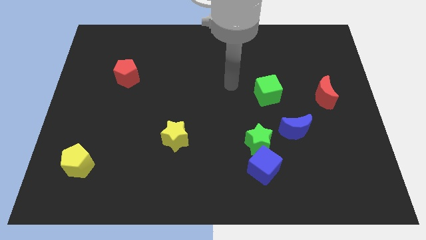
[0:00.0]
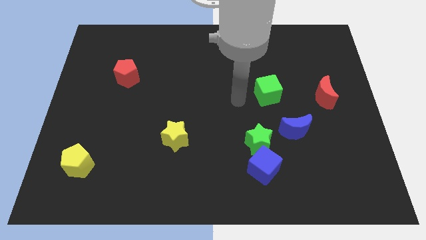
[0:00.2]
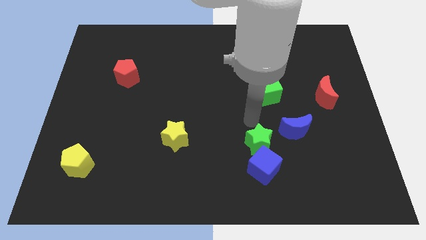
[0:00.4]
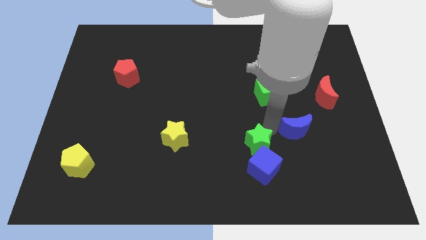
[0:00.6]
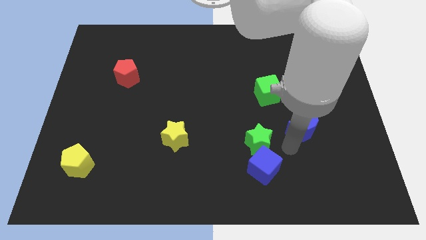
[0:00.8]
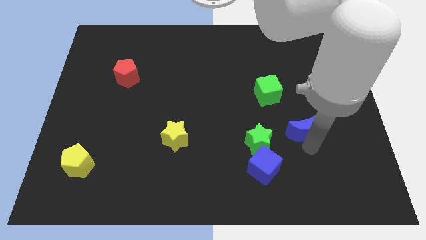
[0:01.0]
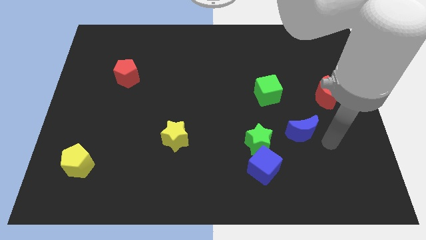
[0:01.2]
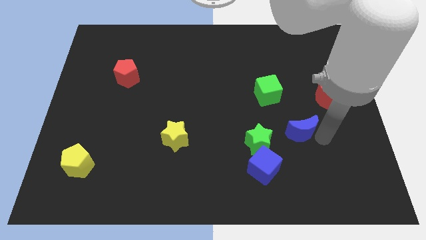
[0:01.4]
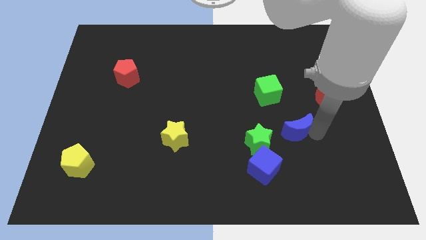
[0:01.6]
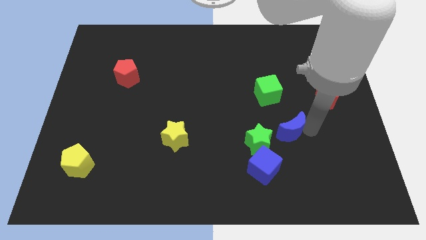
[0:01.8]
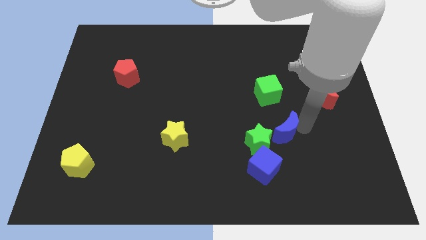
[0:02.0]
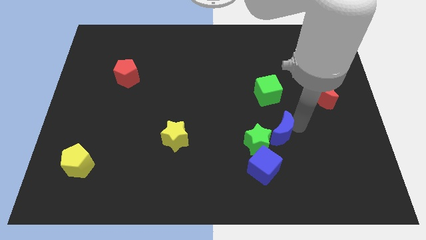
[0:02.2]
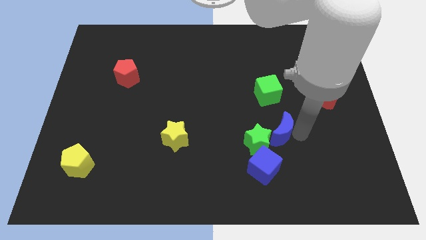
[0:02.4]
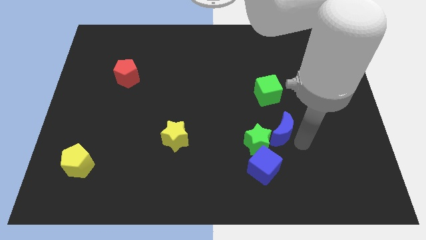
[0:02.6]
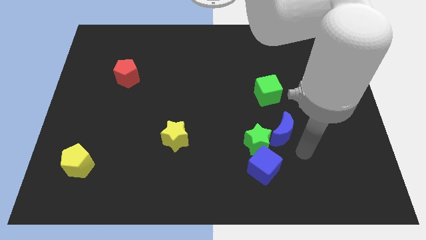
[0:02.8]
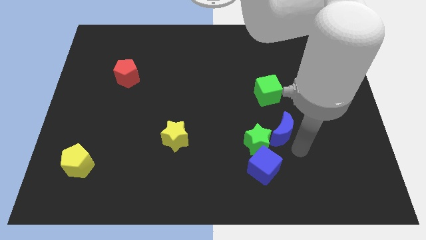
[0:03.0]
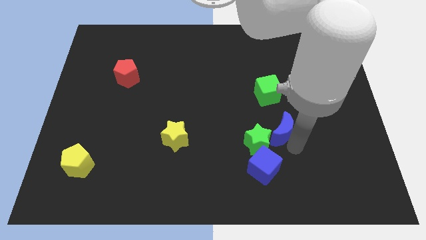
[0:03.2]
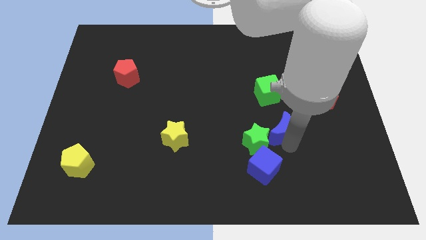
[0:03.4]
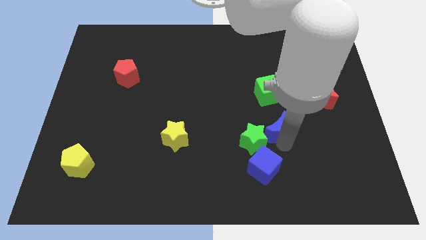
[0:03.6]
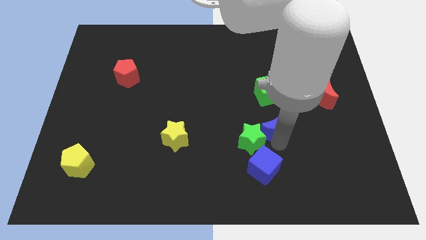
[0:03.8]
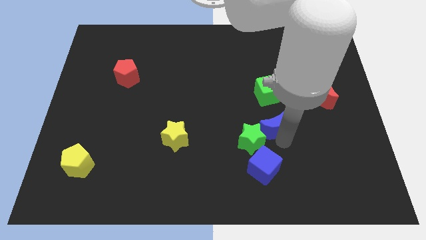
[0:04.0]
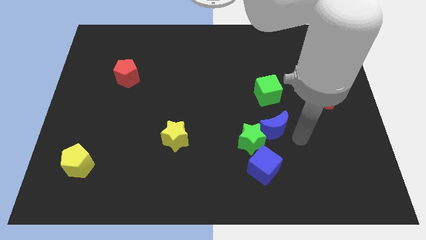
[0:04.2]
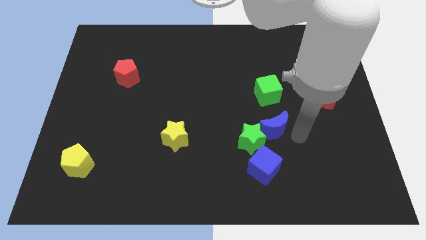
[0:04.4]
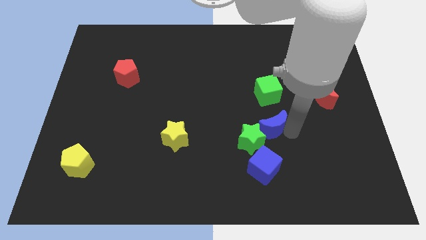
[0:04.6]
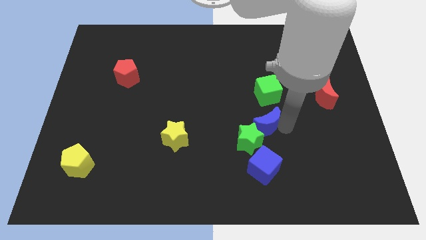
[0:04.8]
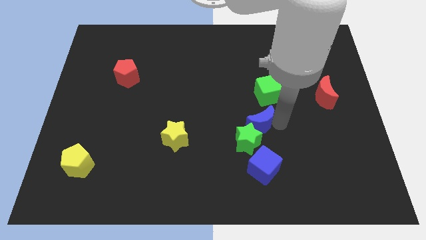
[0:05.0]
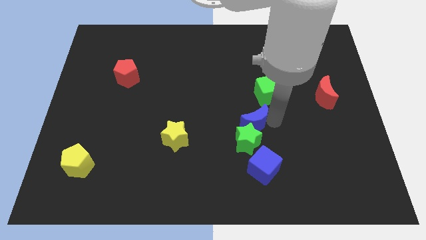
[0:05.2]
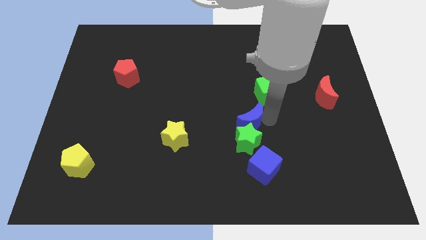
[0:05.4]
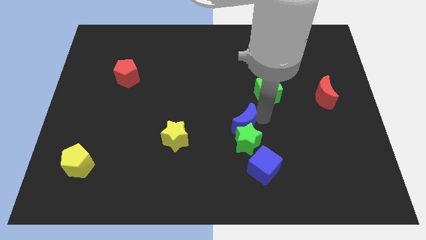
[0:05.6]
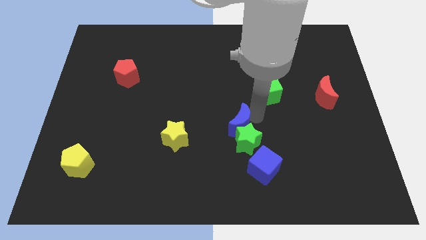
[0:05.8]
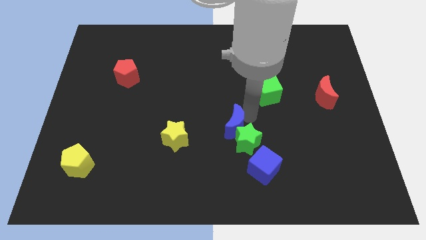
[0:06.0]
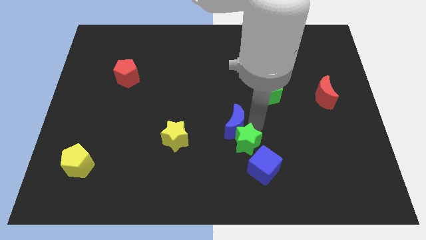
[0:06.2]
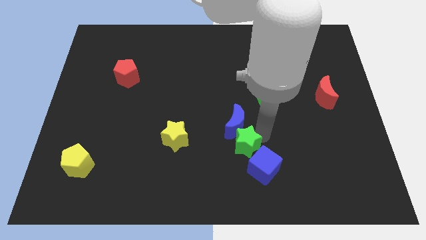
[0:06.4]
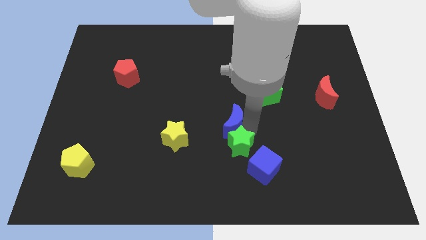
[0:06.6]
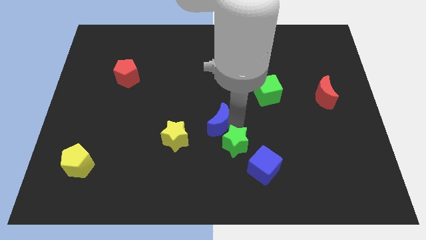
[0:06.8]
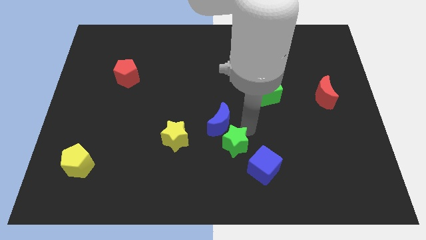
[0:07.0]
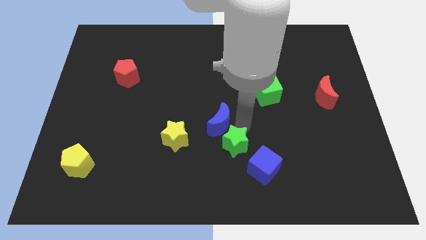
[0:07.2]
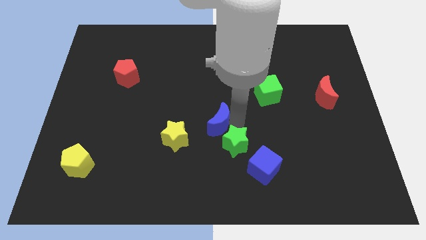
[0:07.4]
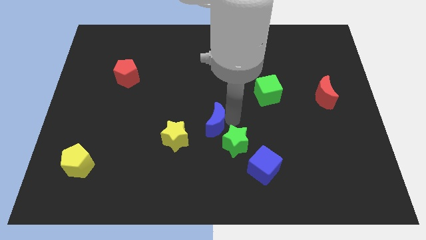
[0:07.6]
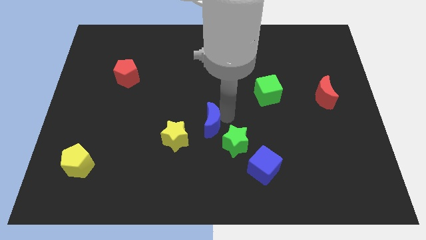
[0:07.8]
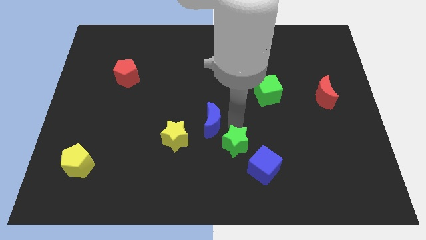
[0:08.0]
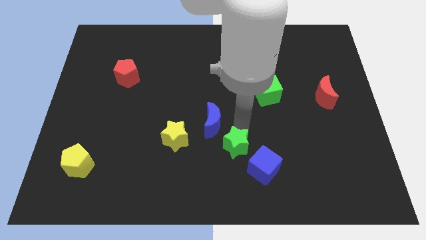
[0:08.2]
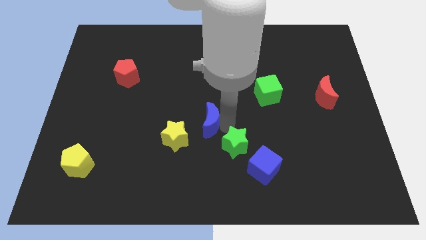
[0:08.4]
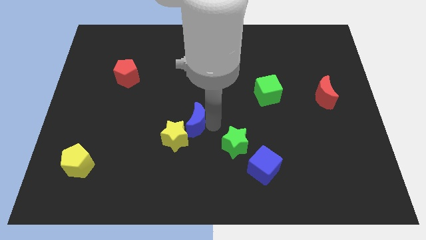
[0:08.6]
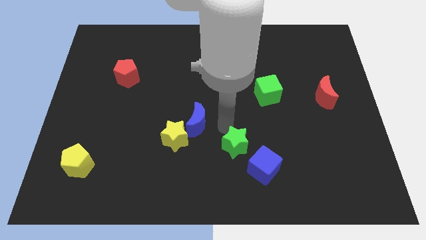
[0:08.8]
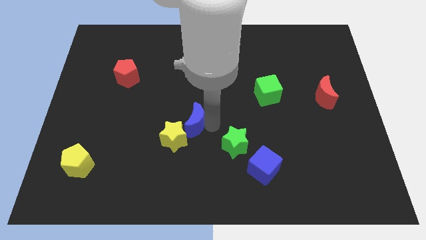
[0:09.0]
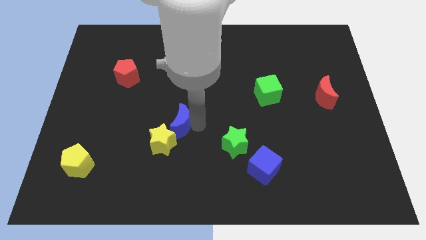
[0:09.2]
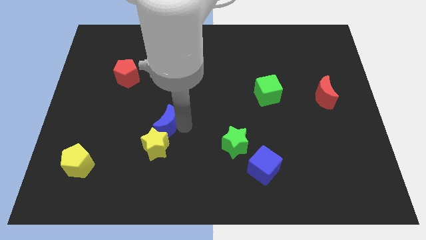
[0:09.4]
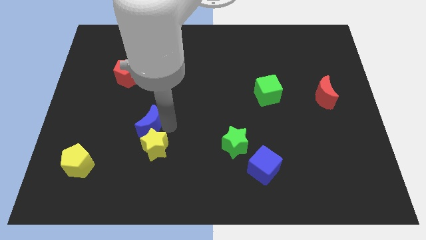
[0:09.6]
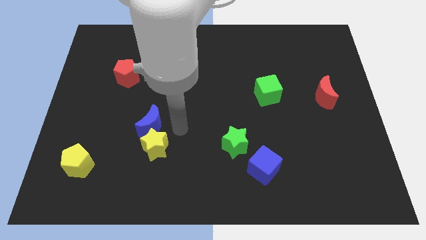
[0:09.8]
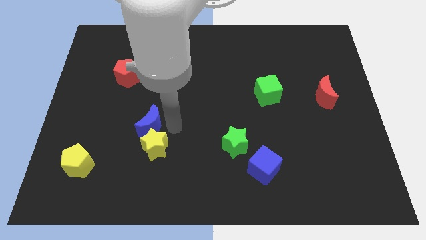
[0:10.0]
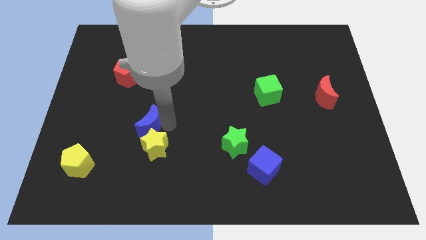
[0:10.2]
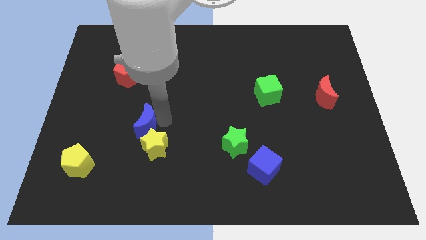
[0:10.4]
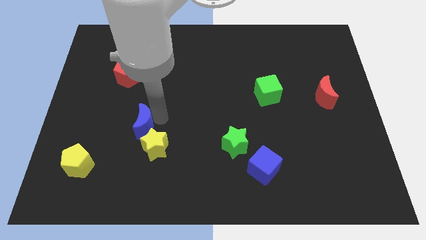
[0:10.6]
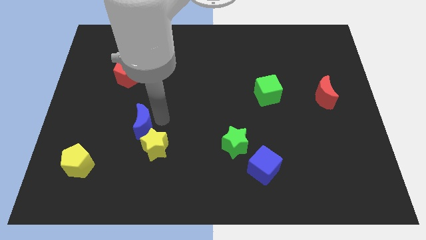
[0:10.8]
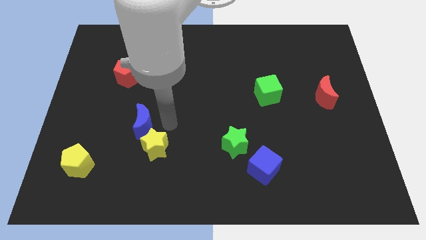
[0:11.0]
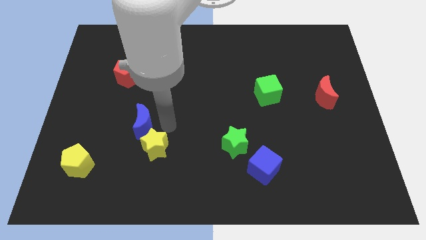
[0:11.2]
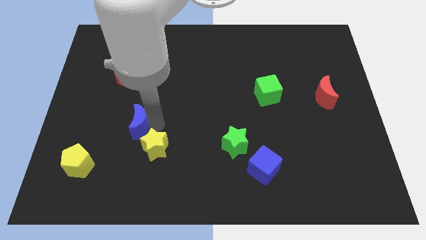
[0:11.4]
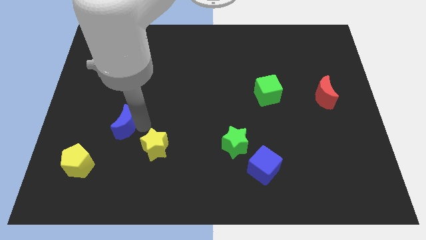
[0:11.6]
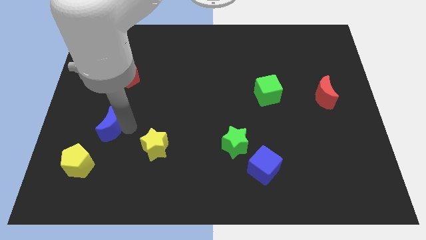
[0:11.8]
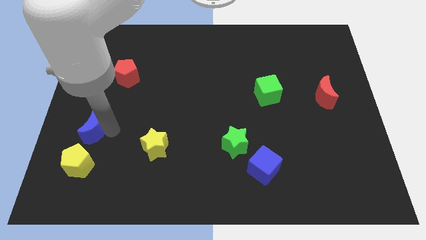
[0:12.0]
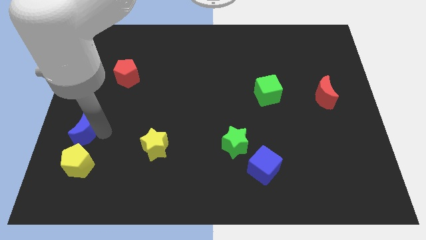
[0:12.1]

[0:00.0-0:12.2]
move the blue moon to the center left

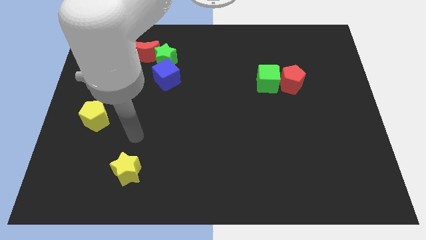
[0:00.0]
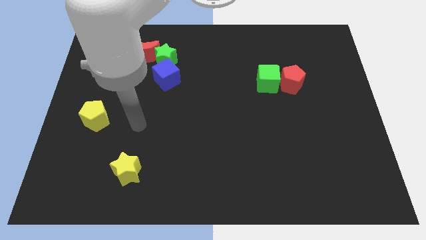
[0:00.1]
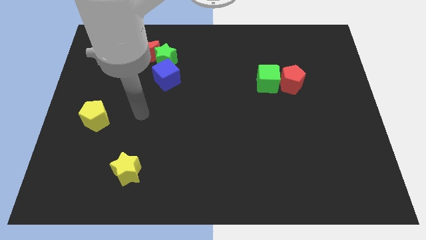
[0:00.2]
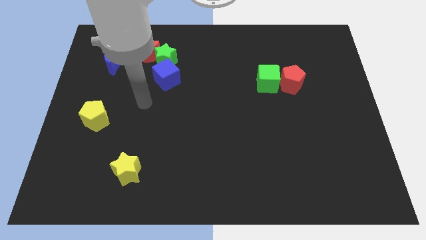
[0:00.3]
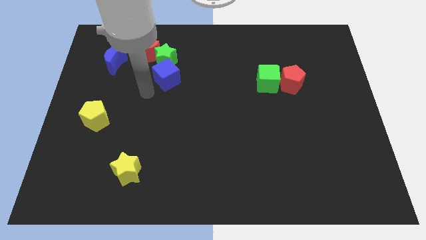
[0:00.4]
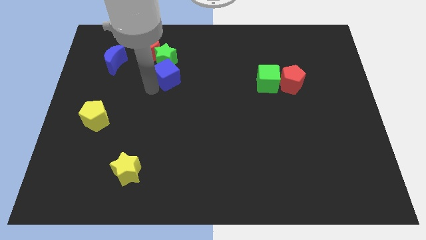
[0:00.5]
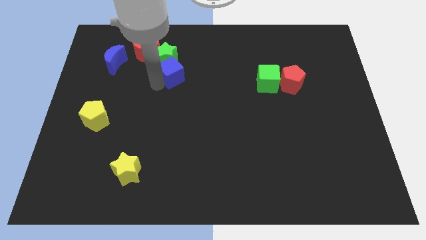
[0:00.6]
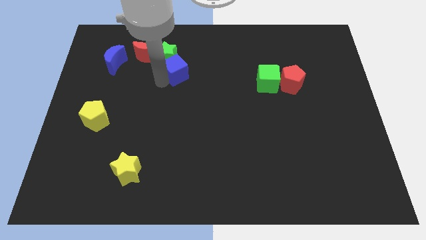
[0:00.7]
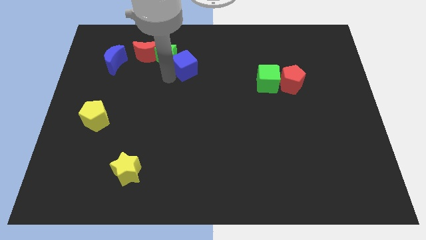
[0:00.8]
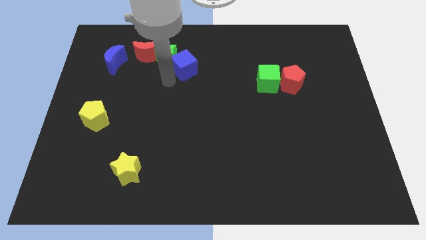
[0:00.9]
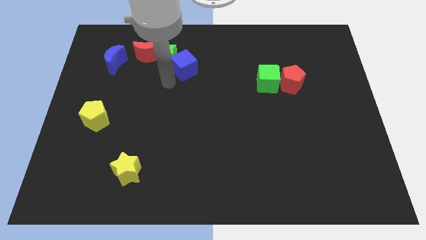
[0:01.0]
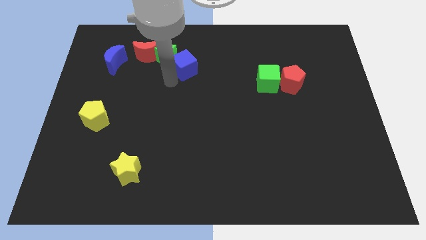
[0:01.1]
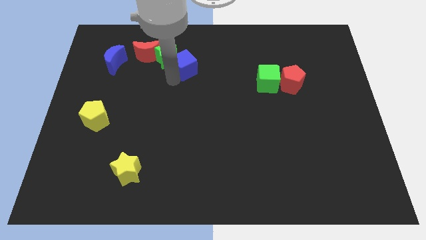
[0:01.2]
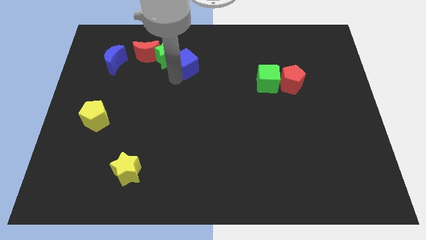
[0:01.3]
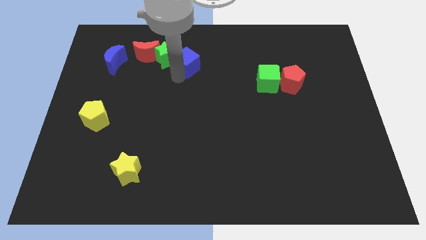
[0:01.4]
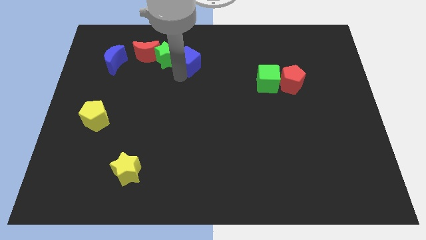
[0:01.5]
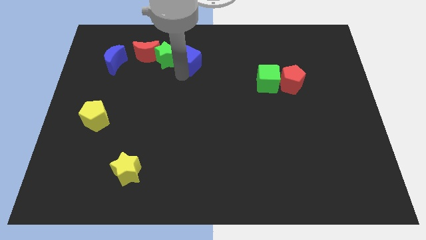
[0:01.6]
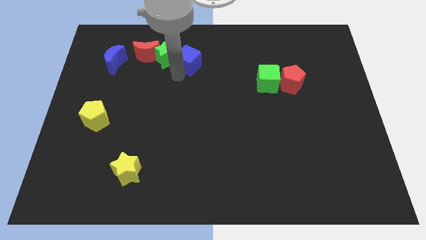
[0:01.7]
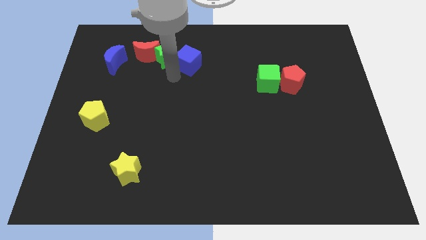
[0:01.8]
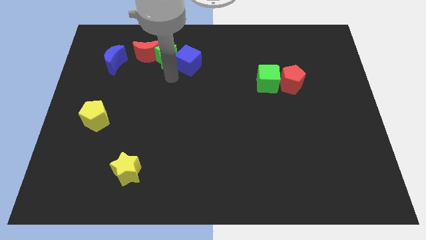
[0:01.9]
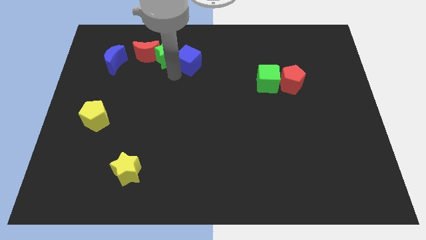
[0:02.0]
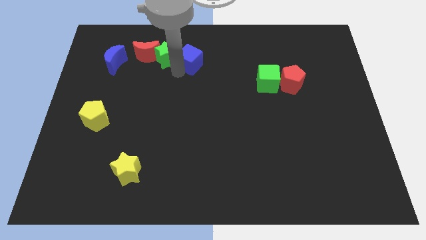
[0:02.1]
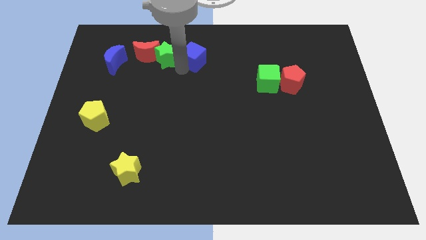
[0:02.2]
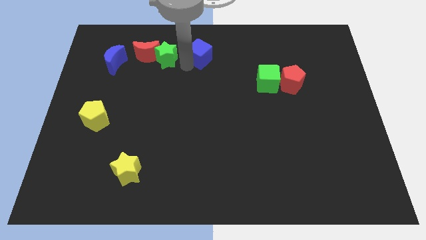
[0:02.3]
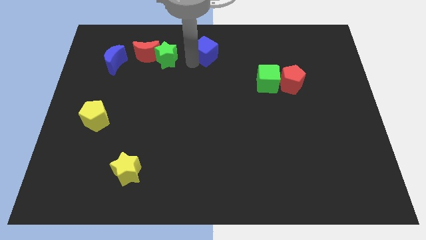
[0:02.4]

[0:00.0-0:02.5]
push the blue cube to the top side
